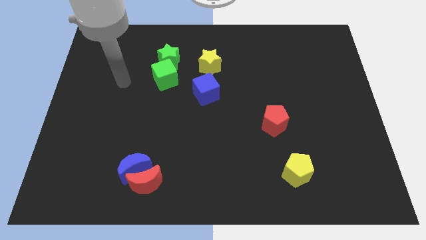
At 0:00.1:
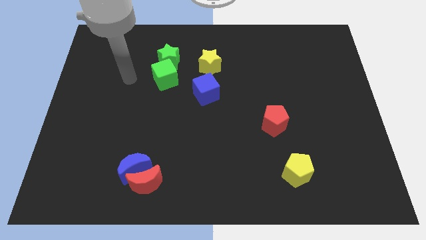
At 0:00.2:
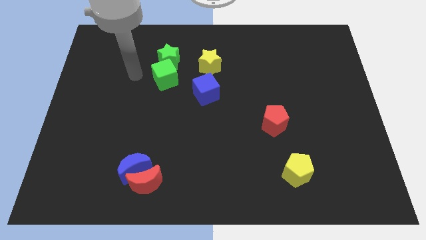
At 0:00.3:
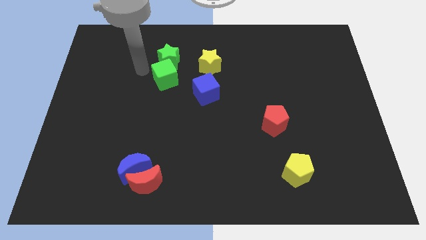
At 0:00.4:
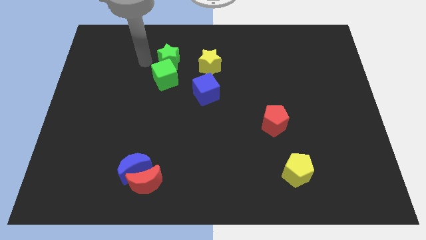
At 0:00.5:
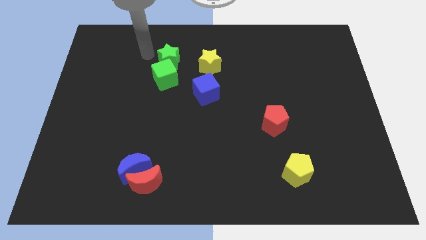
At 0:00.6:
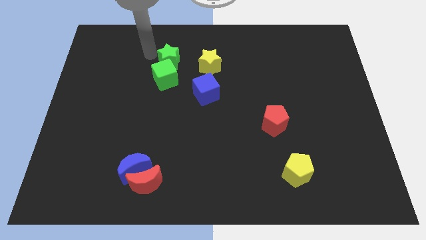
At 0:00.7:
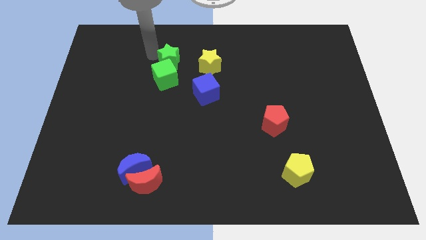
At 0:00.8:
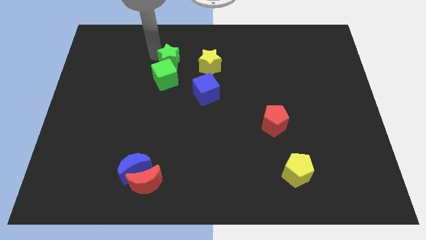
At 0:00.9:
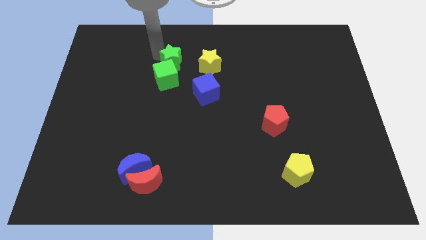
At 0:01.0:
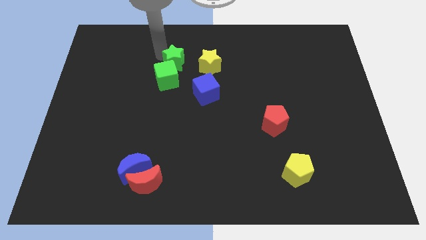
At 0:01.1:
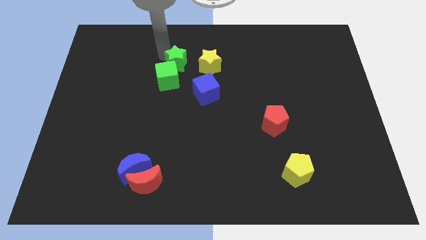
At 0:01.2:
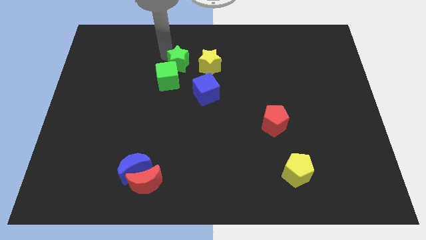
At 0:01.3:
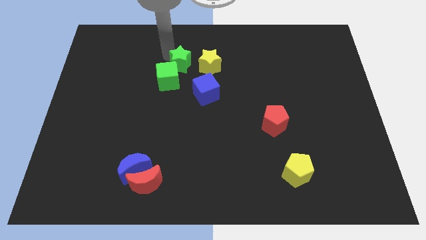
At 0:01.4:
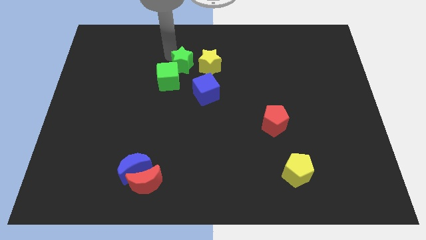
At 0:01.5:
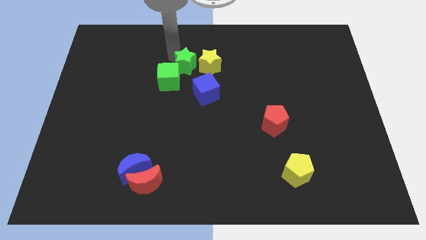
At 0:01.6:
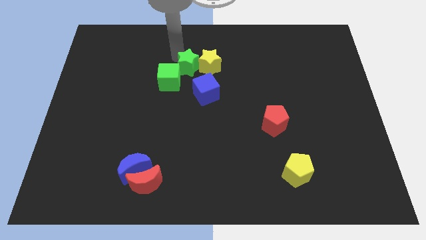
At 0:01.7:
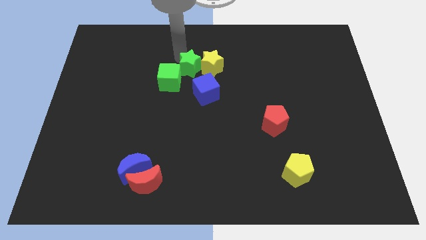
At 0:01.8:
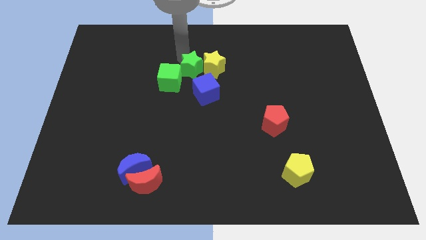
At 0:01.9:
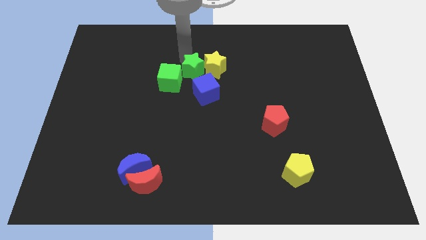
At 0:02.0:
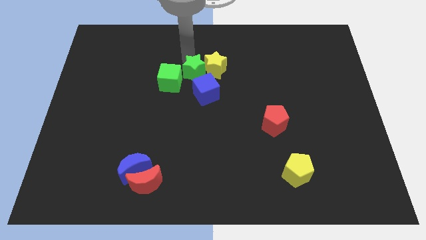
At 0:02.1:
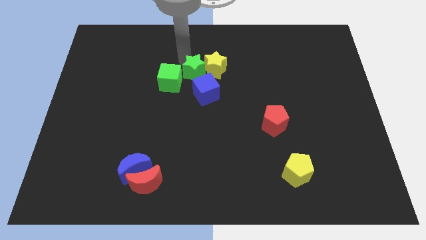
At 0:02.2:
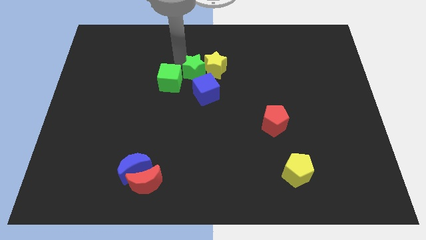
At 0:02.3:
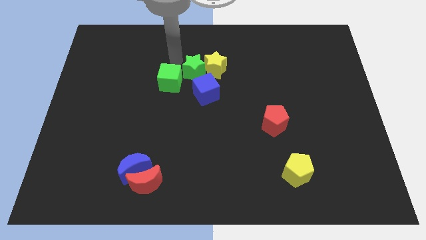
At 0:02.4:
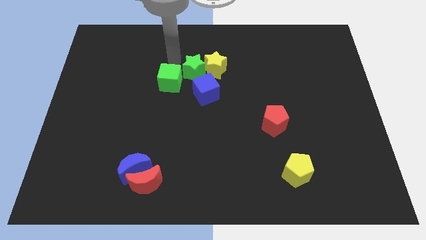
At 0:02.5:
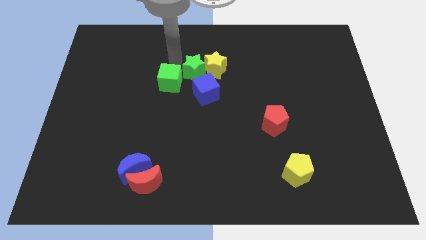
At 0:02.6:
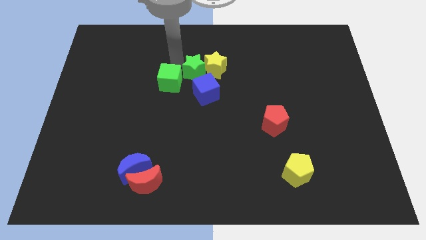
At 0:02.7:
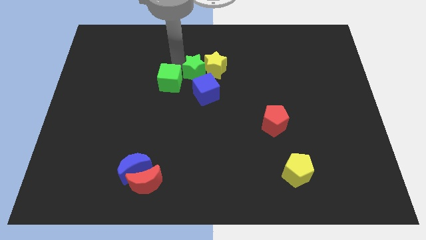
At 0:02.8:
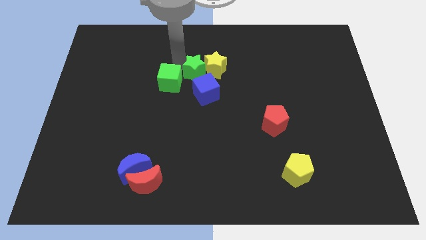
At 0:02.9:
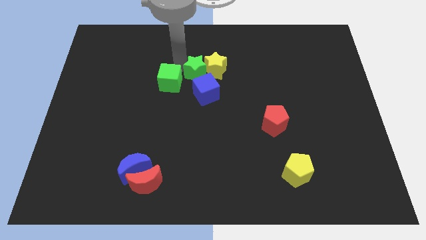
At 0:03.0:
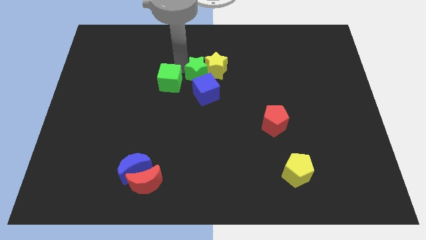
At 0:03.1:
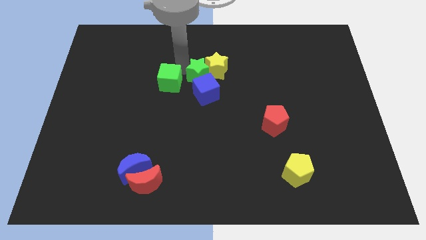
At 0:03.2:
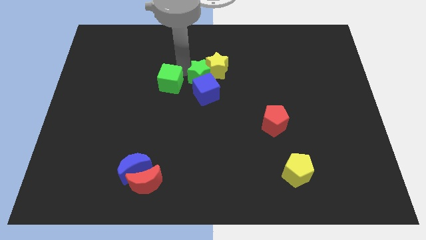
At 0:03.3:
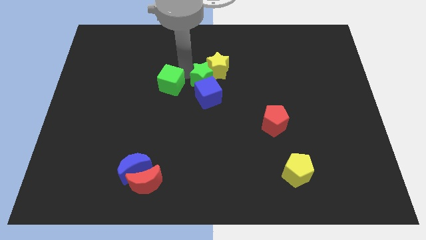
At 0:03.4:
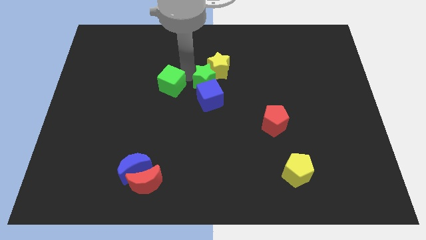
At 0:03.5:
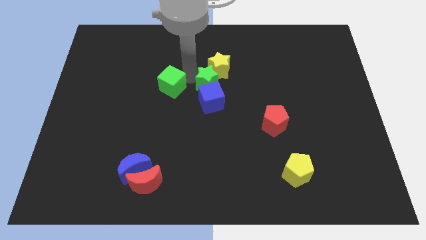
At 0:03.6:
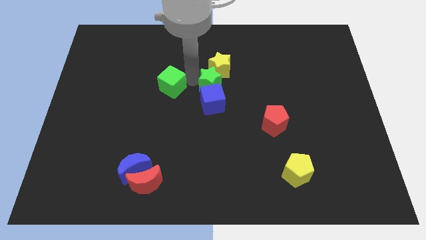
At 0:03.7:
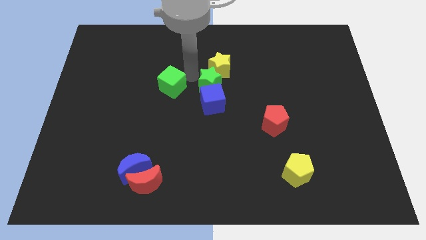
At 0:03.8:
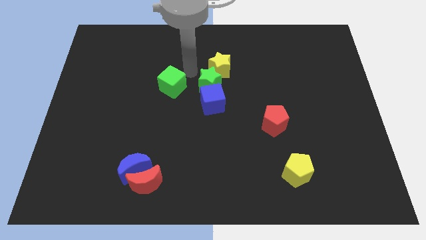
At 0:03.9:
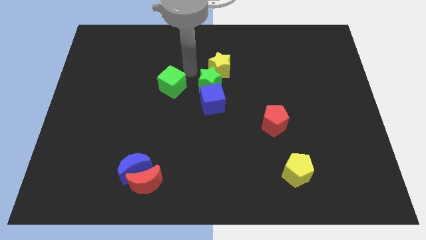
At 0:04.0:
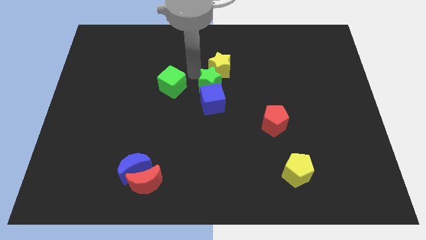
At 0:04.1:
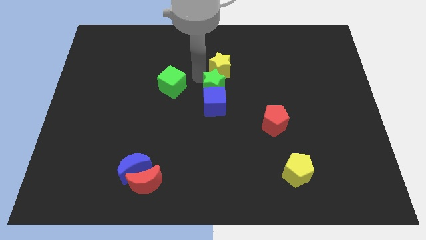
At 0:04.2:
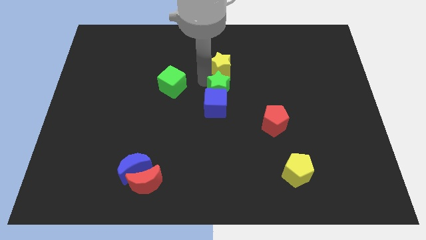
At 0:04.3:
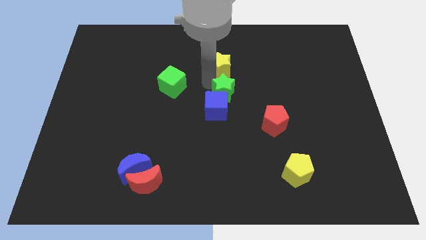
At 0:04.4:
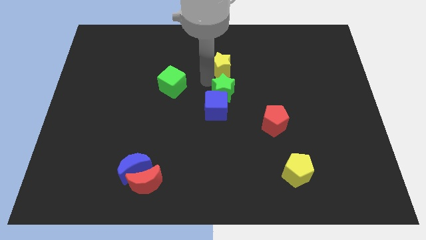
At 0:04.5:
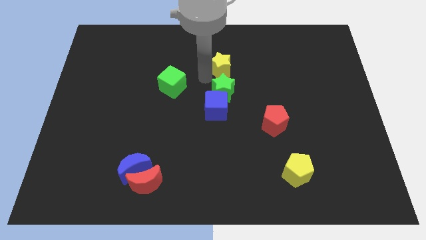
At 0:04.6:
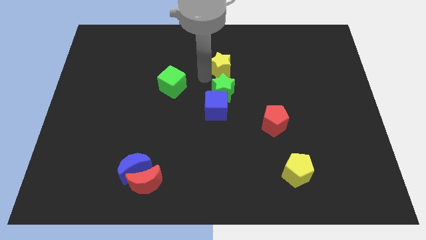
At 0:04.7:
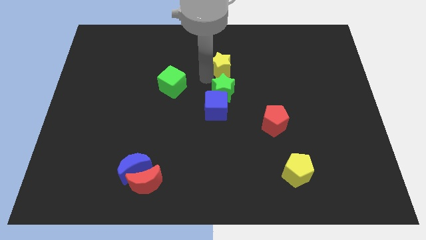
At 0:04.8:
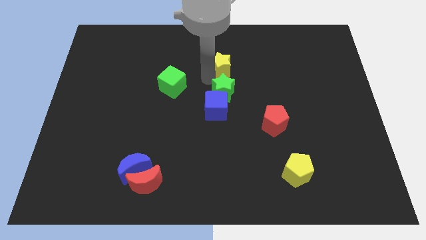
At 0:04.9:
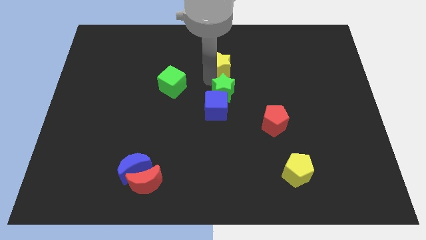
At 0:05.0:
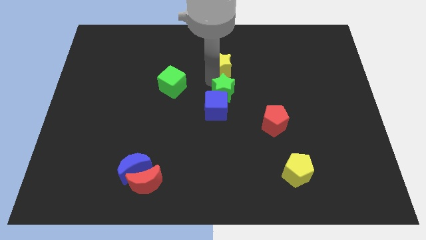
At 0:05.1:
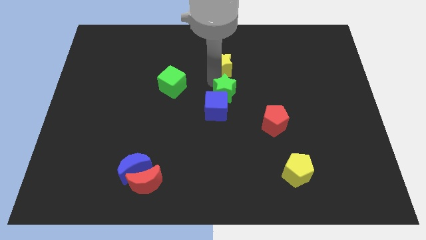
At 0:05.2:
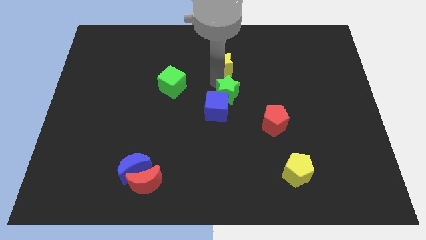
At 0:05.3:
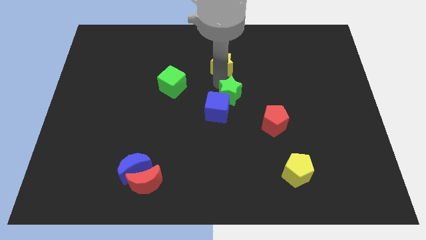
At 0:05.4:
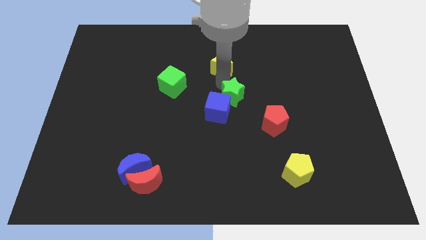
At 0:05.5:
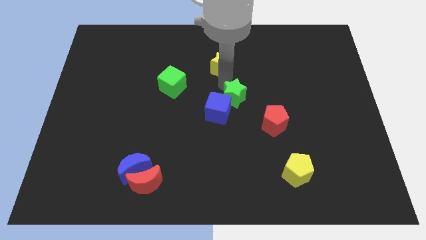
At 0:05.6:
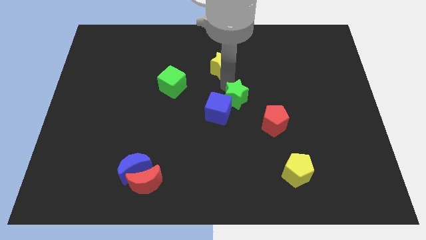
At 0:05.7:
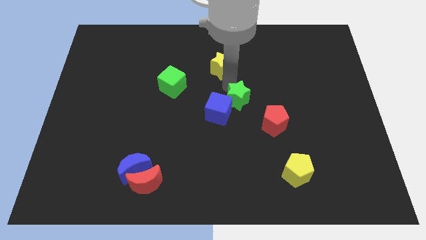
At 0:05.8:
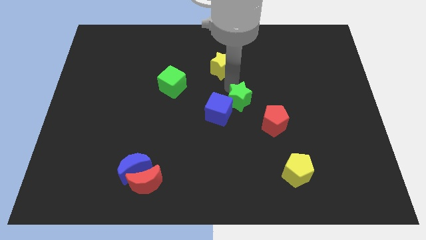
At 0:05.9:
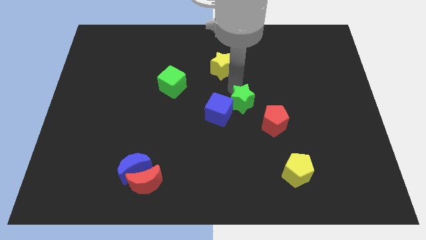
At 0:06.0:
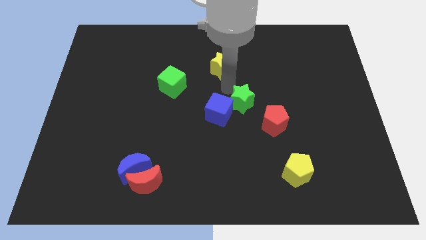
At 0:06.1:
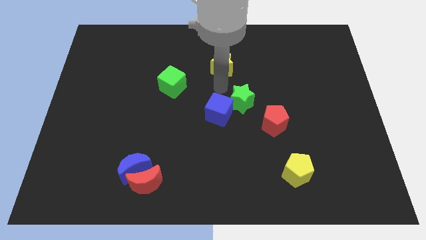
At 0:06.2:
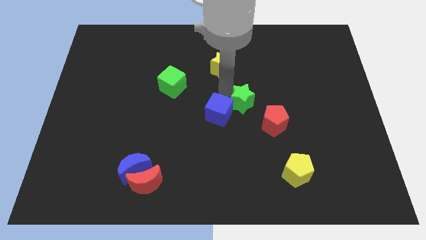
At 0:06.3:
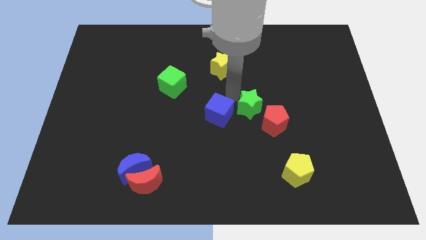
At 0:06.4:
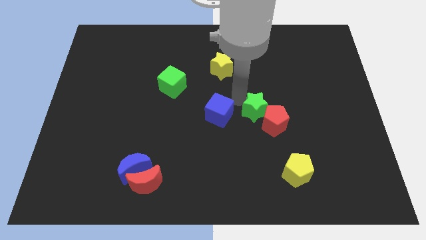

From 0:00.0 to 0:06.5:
move the green star close to the red pentagon

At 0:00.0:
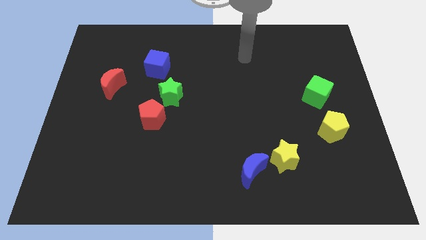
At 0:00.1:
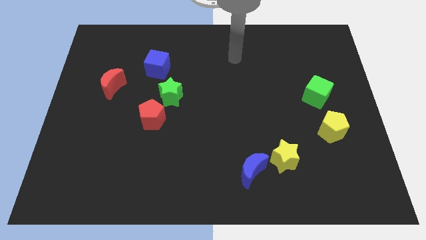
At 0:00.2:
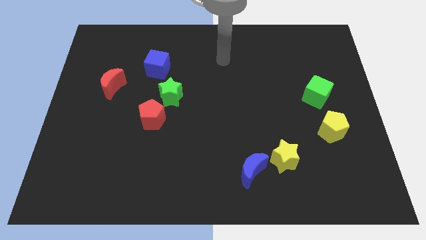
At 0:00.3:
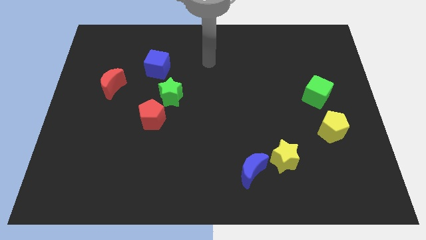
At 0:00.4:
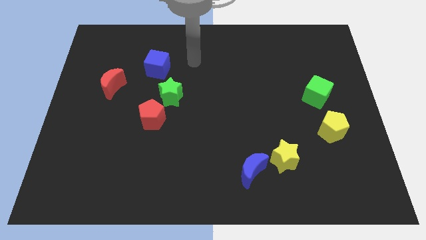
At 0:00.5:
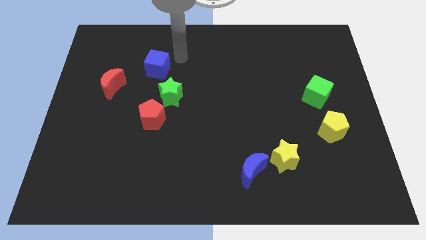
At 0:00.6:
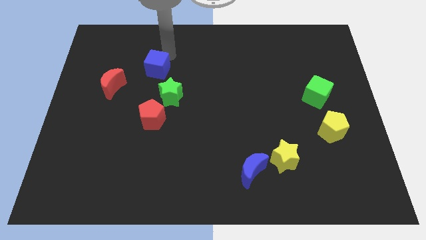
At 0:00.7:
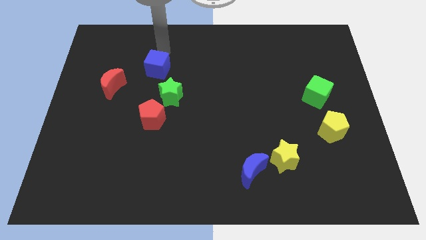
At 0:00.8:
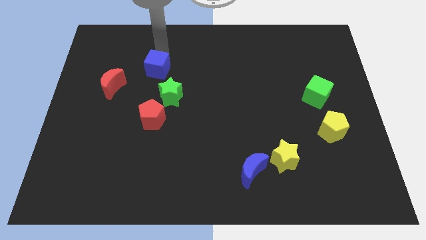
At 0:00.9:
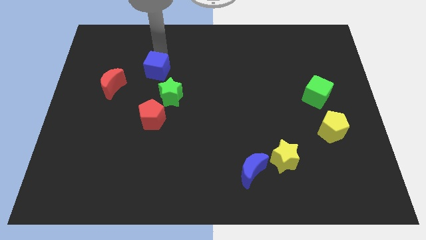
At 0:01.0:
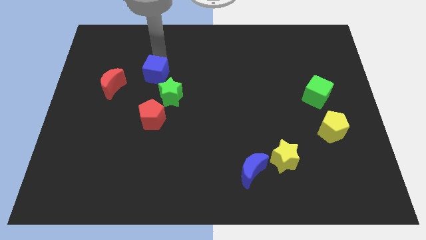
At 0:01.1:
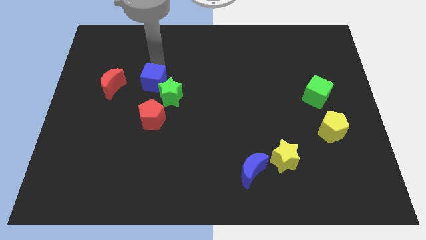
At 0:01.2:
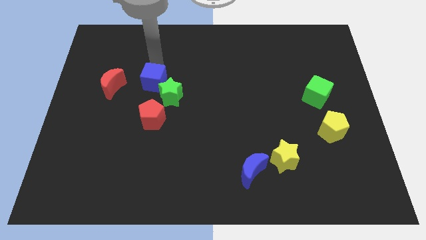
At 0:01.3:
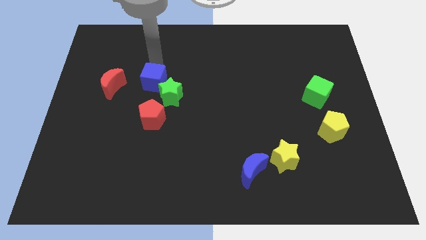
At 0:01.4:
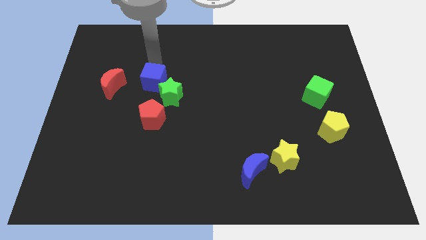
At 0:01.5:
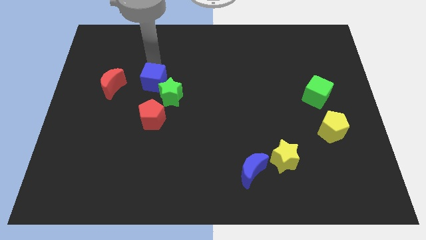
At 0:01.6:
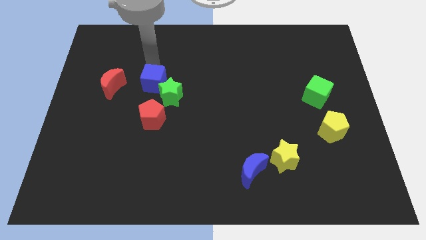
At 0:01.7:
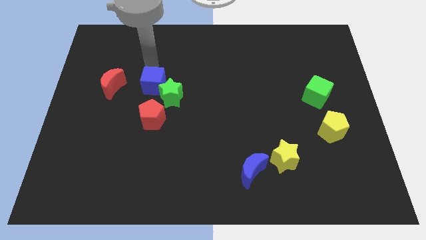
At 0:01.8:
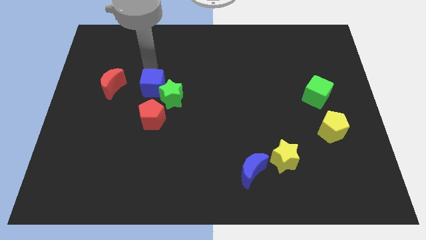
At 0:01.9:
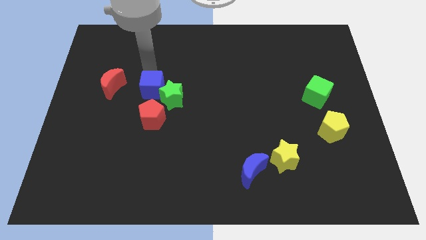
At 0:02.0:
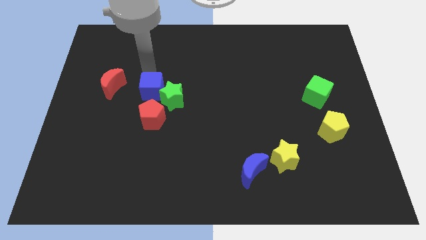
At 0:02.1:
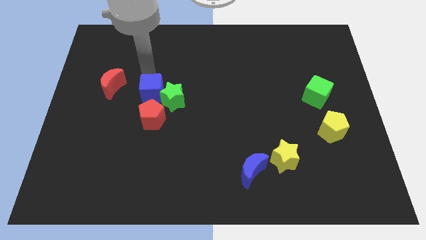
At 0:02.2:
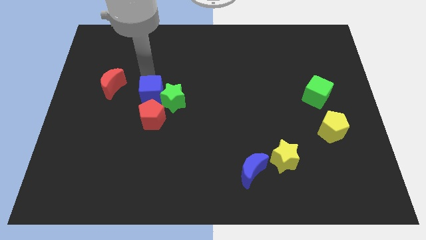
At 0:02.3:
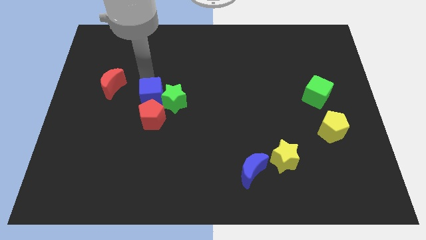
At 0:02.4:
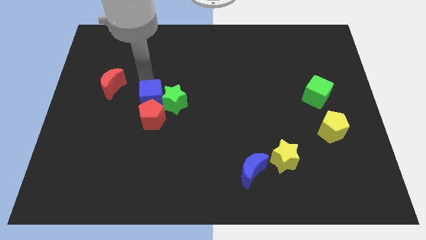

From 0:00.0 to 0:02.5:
slide the blue cube next to the red pentagon
